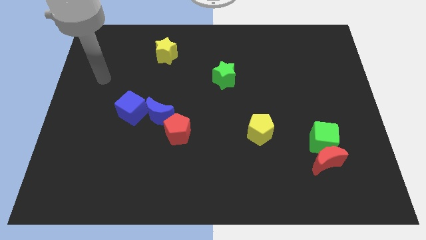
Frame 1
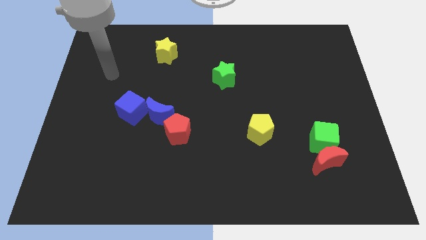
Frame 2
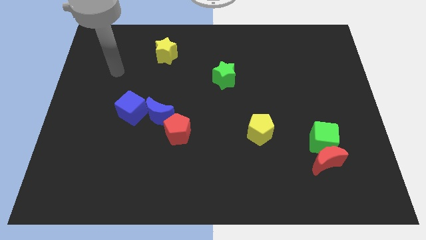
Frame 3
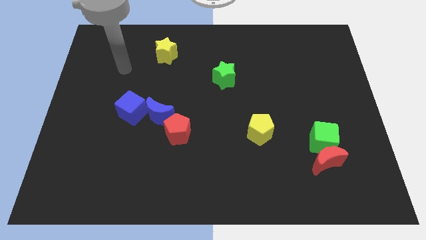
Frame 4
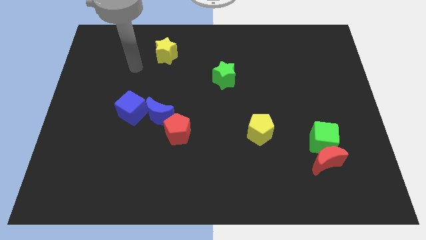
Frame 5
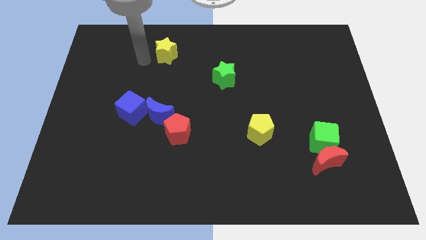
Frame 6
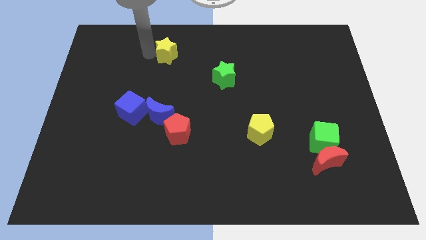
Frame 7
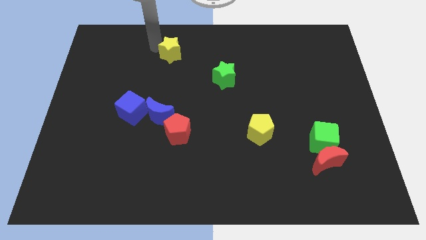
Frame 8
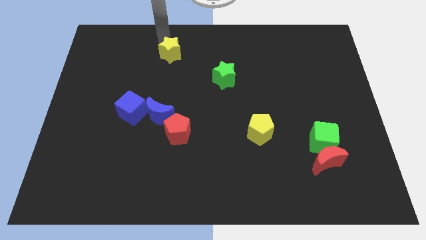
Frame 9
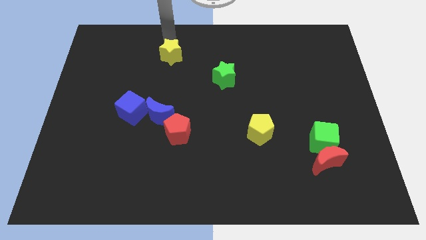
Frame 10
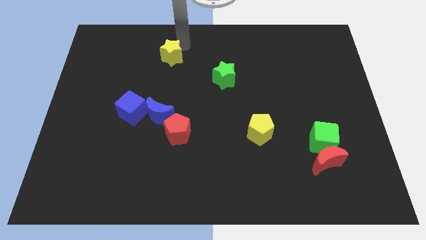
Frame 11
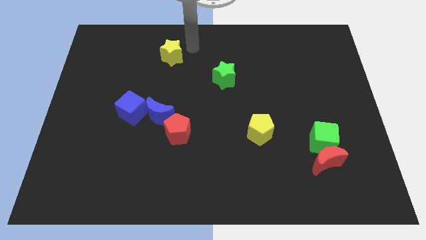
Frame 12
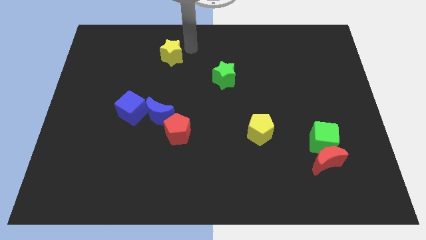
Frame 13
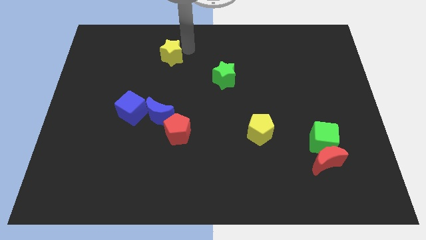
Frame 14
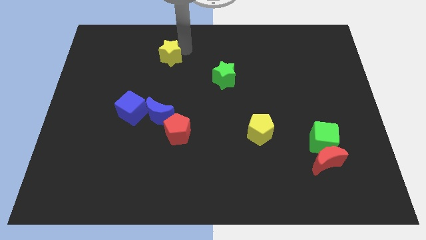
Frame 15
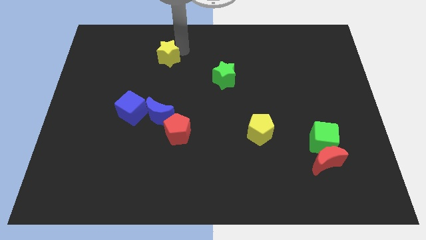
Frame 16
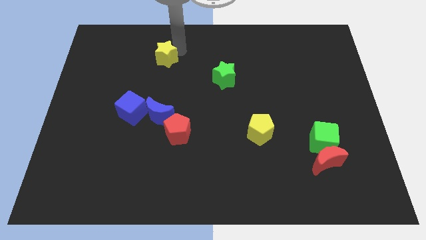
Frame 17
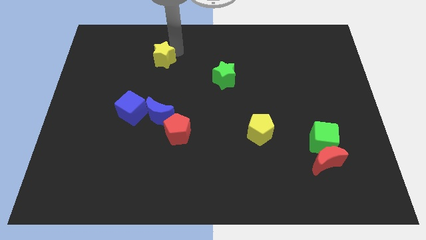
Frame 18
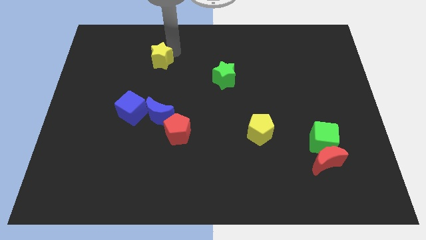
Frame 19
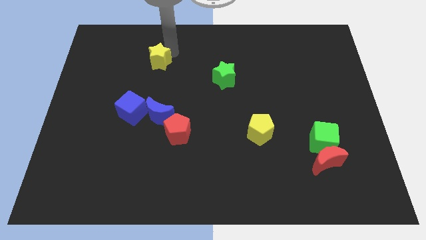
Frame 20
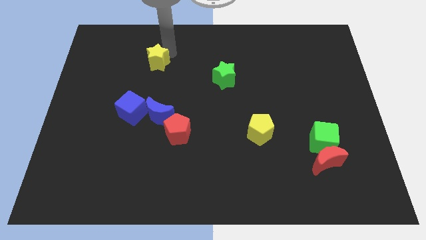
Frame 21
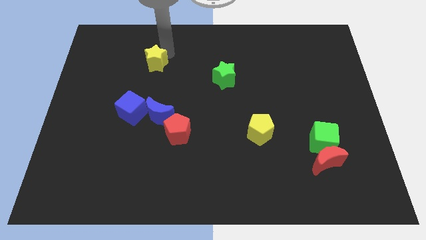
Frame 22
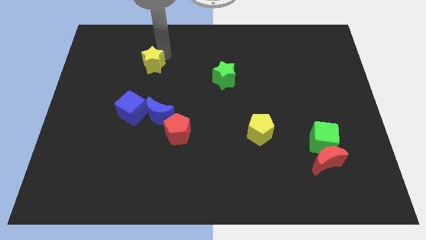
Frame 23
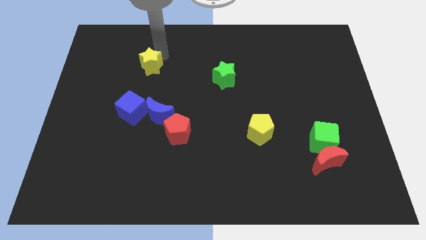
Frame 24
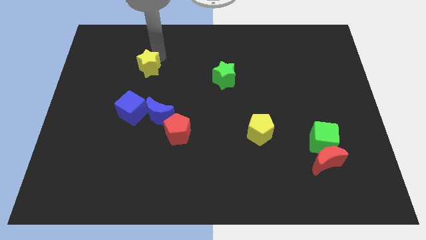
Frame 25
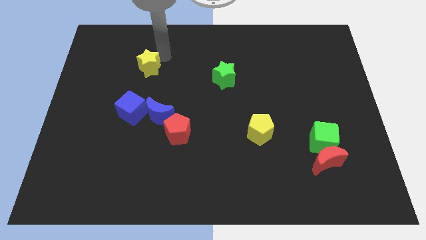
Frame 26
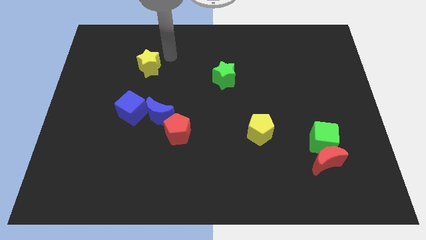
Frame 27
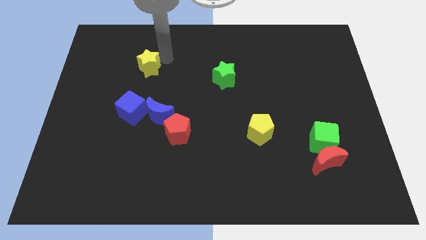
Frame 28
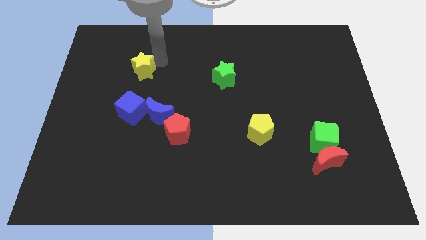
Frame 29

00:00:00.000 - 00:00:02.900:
slide the yellow star diagonally downwards and to the left a little bit

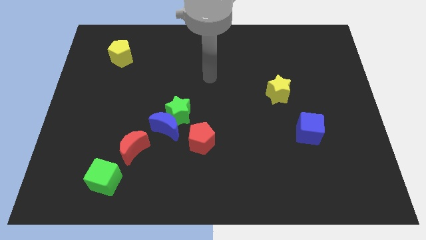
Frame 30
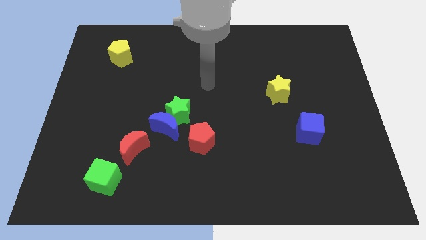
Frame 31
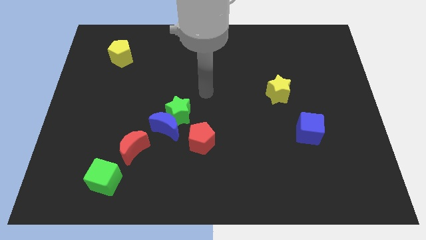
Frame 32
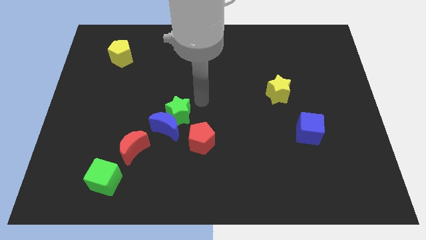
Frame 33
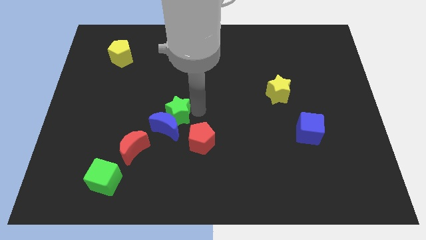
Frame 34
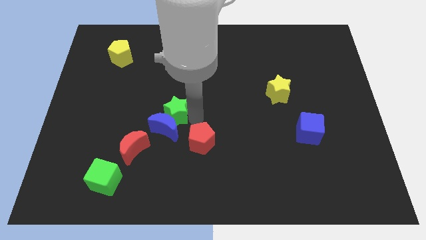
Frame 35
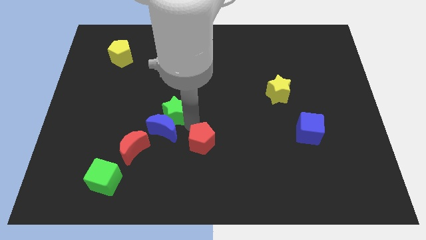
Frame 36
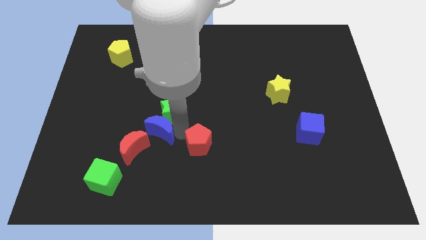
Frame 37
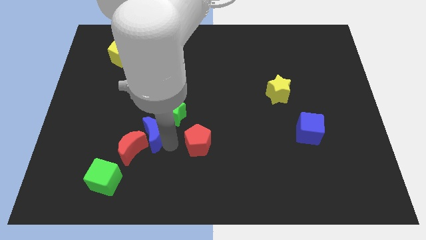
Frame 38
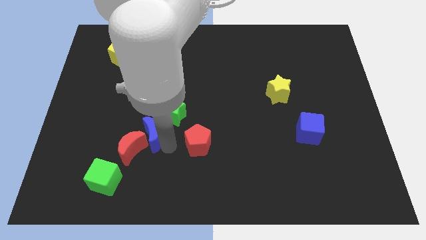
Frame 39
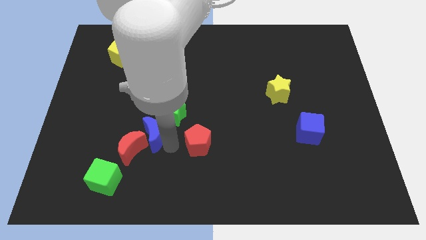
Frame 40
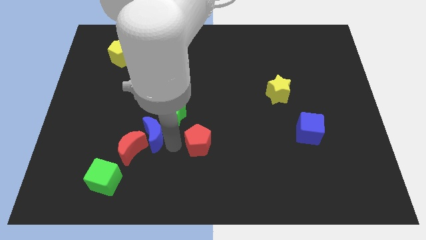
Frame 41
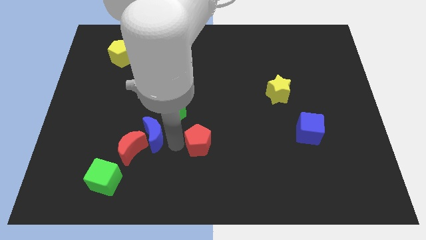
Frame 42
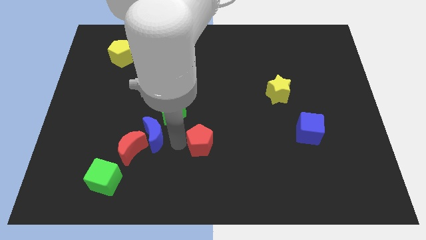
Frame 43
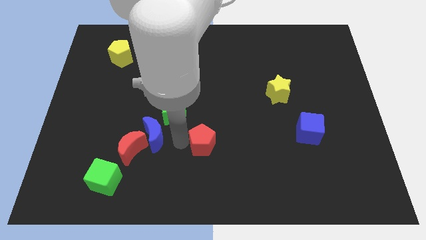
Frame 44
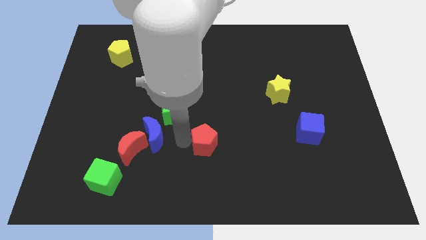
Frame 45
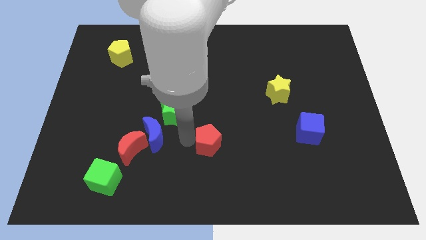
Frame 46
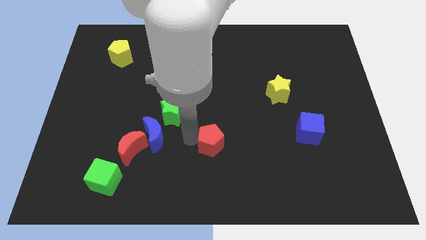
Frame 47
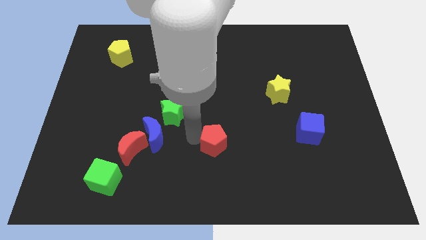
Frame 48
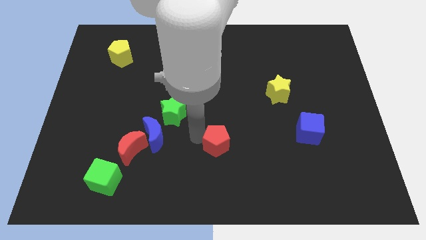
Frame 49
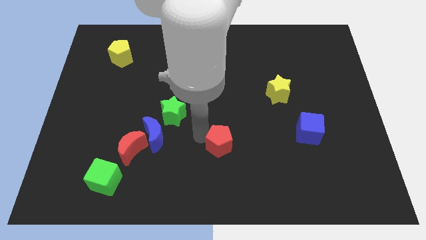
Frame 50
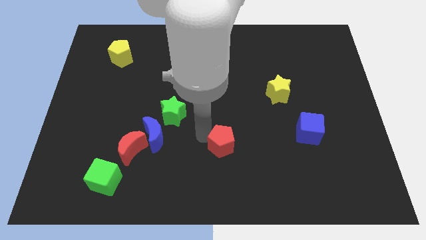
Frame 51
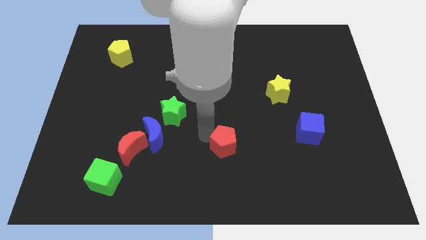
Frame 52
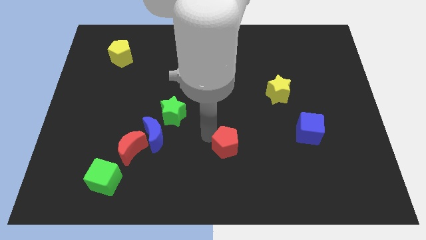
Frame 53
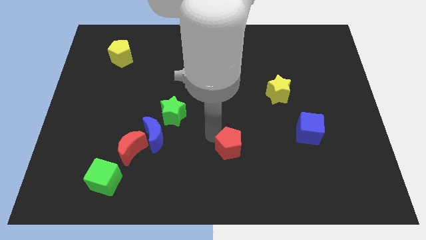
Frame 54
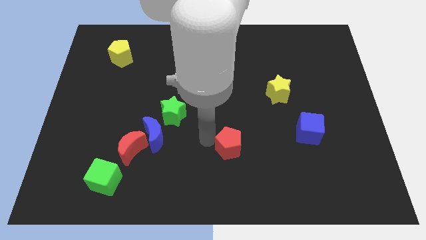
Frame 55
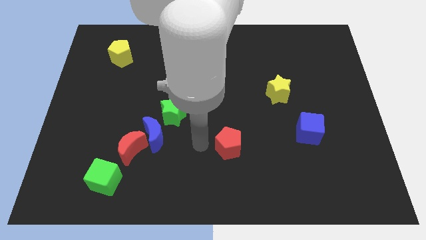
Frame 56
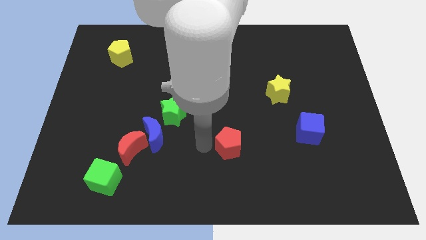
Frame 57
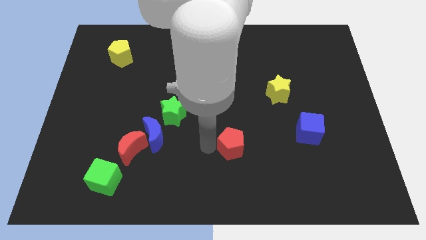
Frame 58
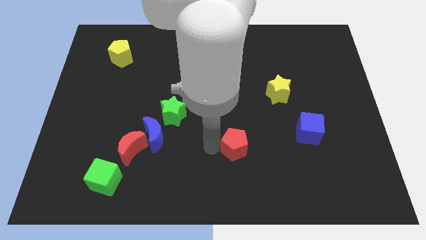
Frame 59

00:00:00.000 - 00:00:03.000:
push the red pentagon a bit right

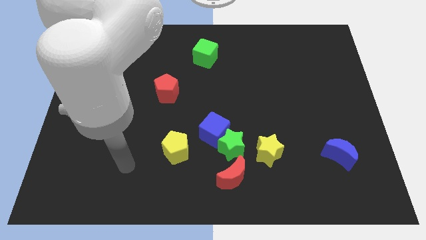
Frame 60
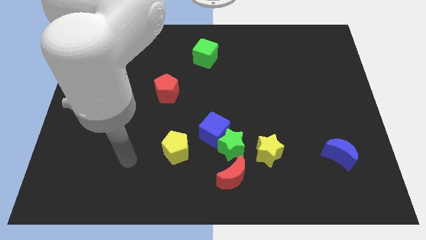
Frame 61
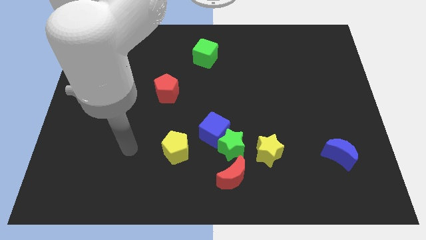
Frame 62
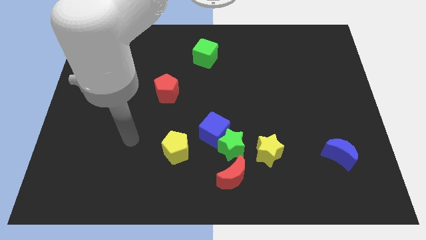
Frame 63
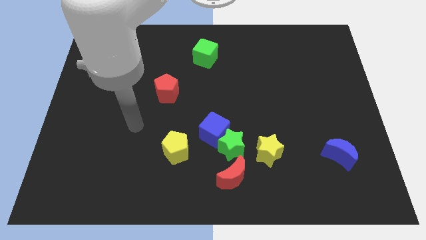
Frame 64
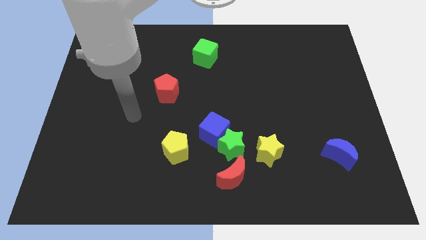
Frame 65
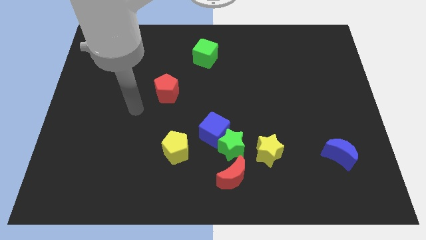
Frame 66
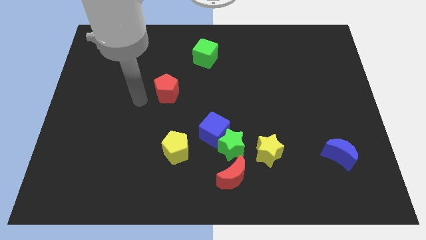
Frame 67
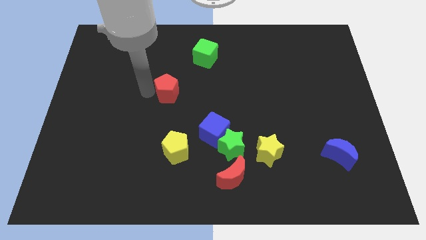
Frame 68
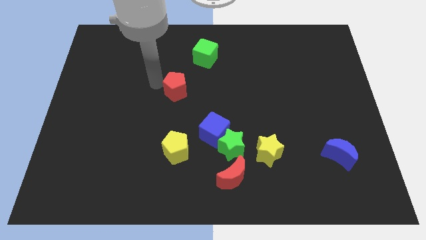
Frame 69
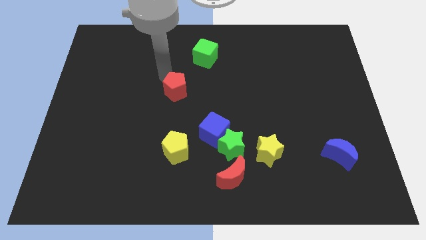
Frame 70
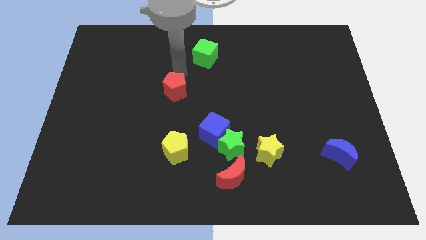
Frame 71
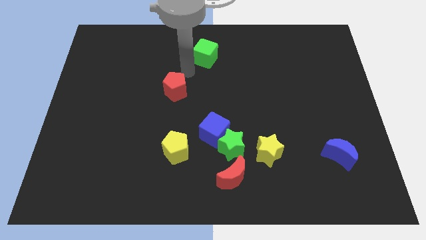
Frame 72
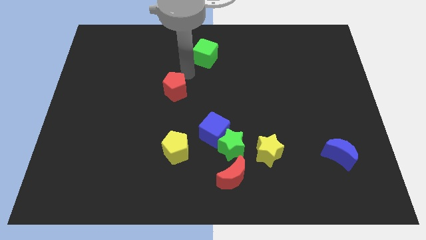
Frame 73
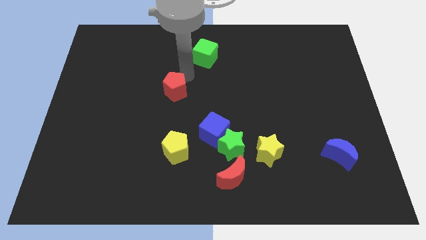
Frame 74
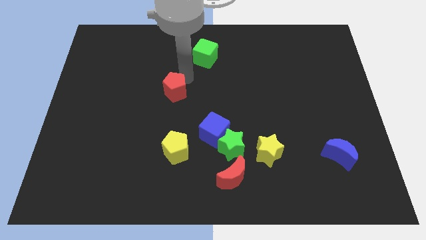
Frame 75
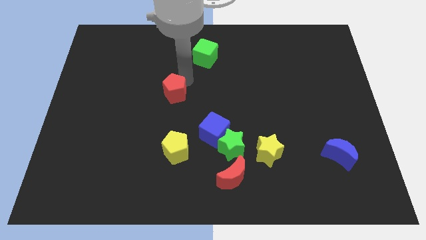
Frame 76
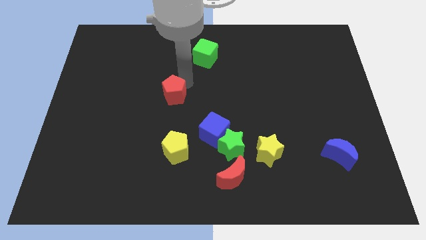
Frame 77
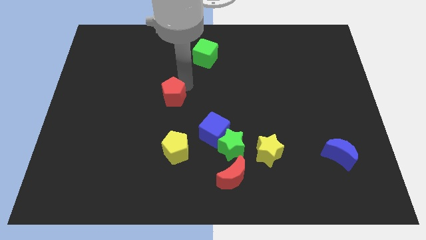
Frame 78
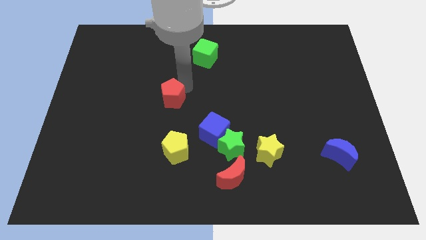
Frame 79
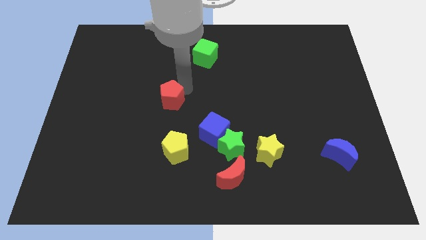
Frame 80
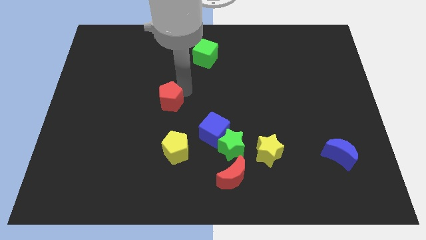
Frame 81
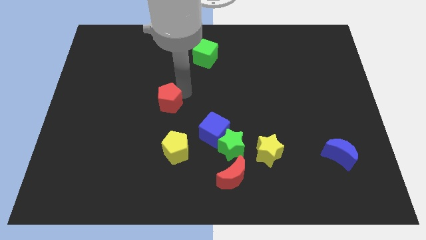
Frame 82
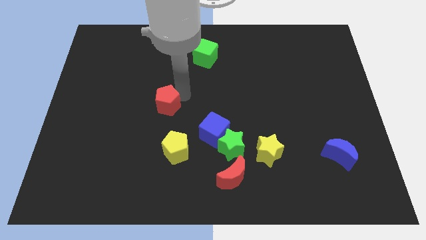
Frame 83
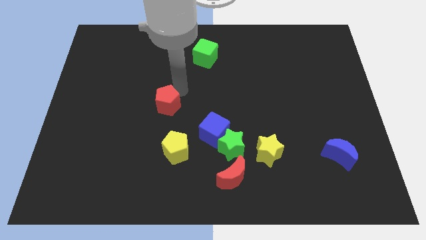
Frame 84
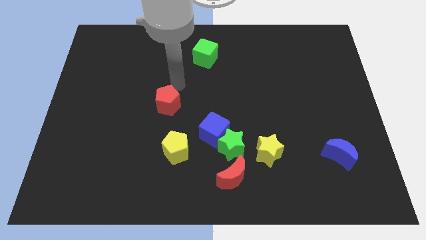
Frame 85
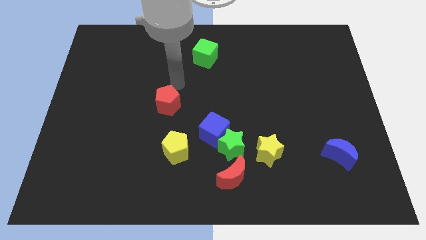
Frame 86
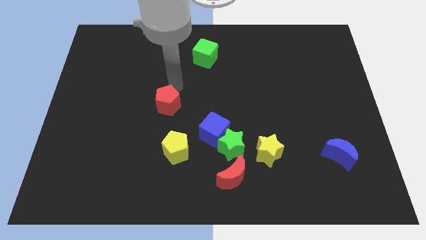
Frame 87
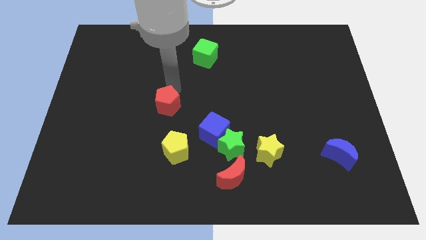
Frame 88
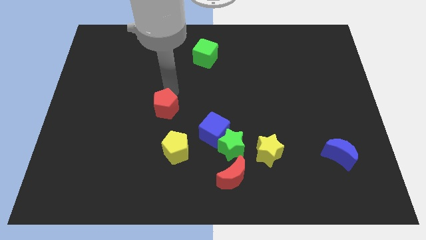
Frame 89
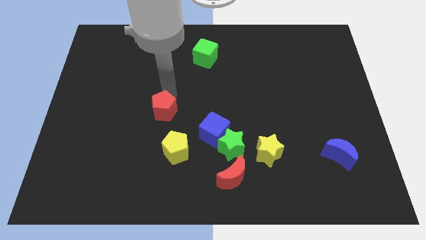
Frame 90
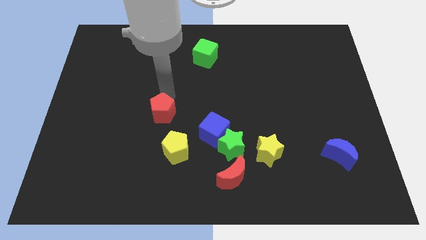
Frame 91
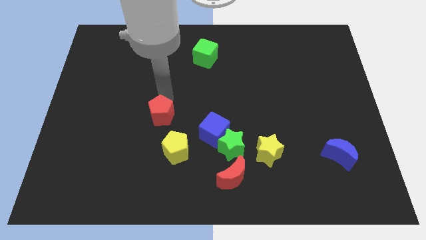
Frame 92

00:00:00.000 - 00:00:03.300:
slightly slide the red pentagon down
